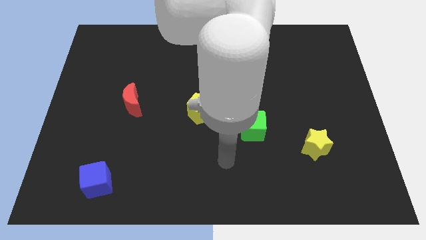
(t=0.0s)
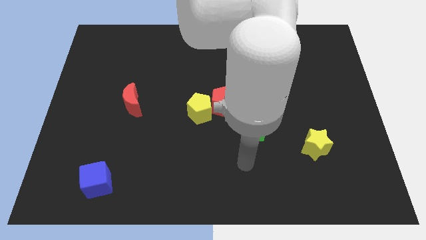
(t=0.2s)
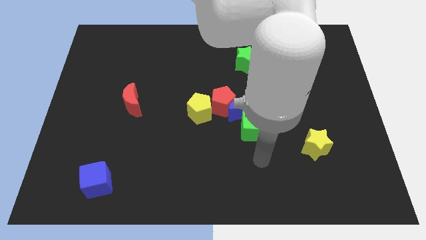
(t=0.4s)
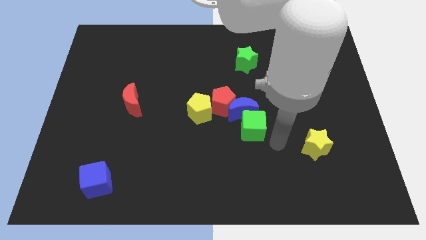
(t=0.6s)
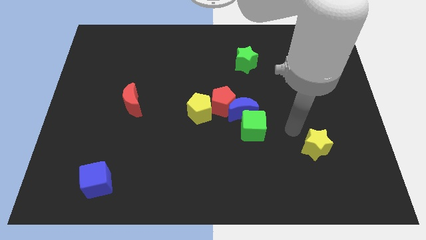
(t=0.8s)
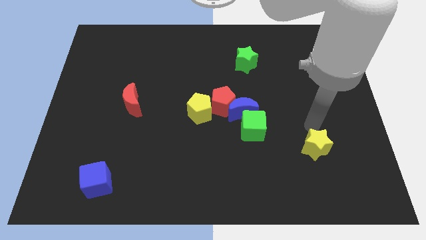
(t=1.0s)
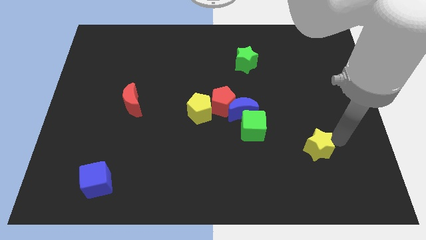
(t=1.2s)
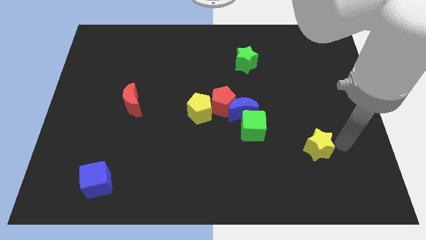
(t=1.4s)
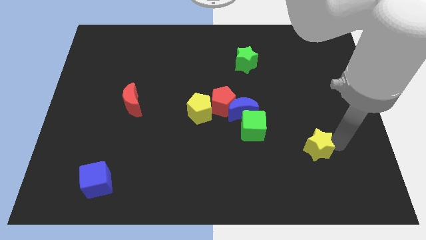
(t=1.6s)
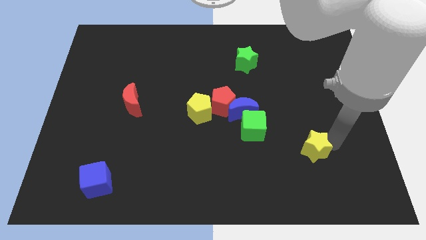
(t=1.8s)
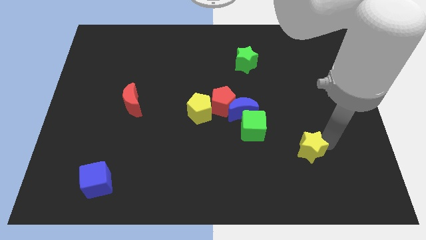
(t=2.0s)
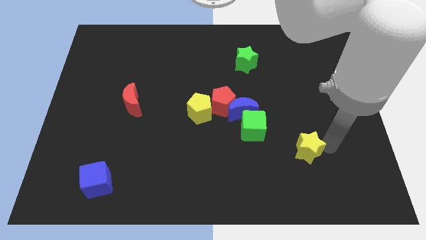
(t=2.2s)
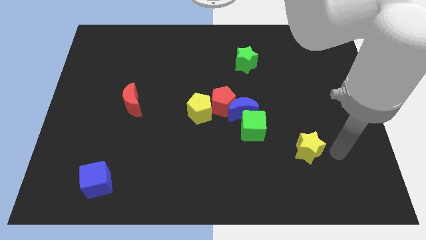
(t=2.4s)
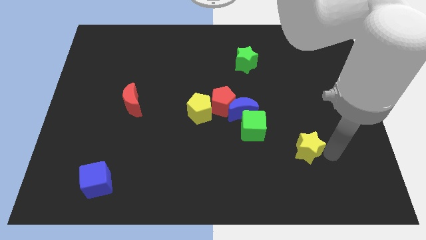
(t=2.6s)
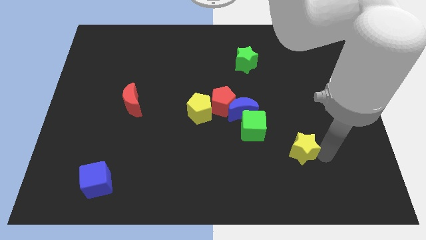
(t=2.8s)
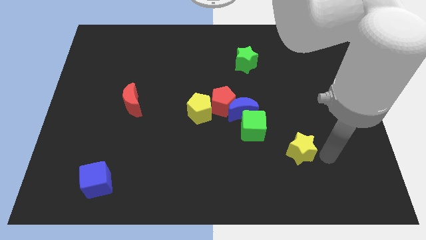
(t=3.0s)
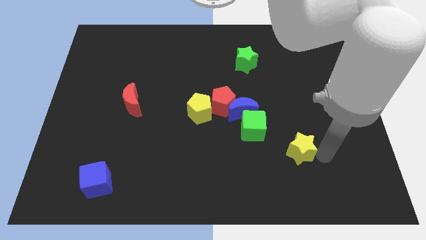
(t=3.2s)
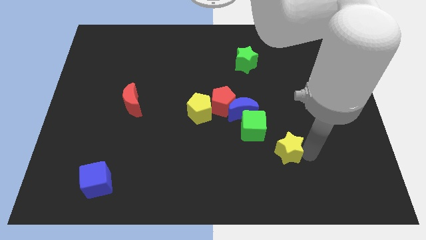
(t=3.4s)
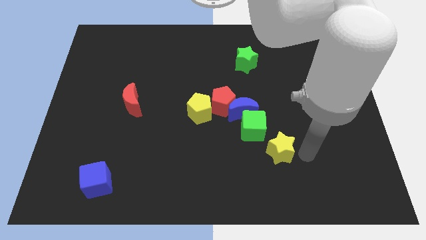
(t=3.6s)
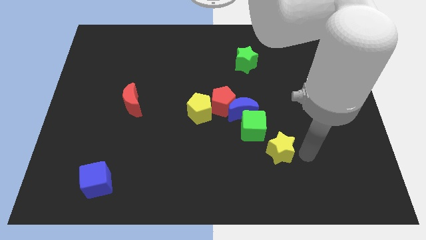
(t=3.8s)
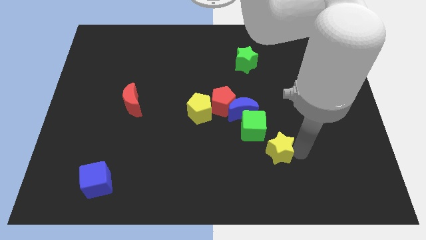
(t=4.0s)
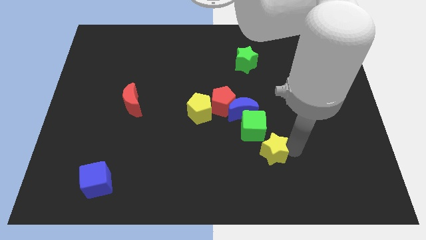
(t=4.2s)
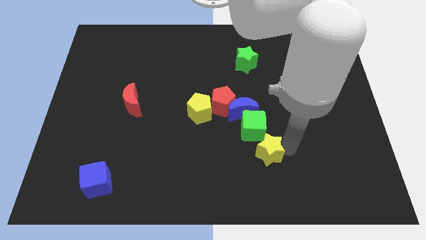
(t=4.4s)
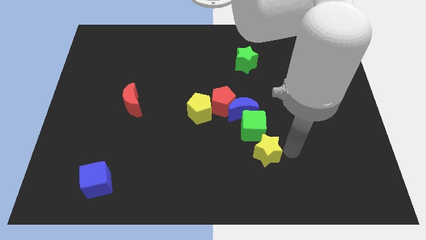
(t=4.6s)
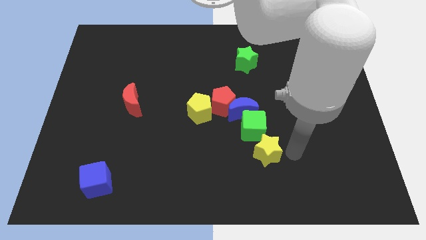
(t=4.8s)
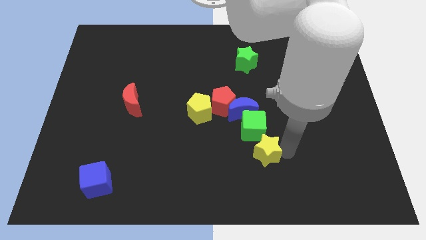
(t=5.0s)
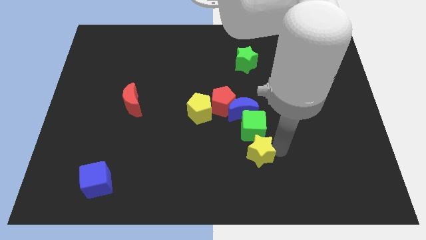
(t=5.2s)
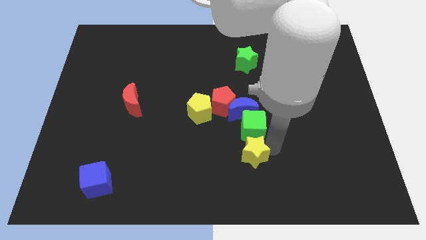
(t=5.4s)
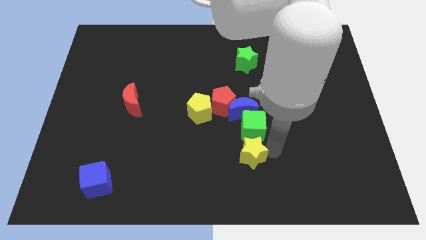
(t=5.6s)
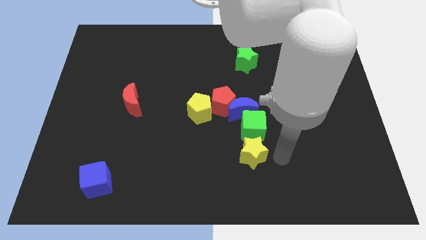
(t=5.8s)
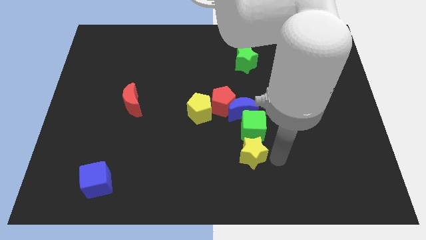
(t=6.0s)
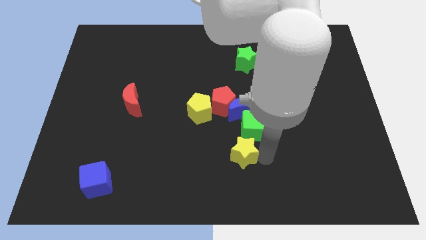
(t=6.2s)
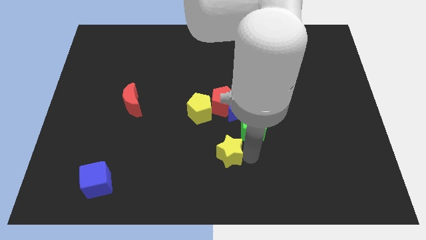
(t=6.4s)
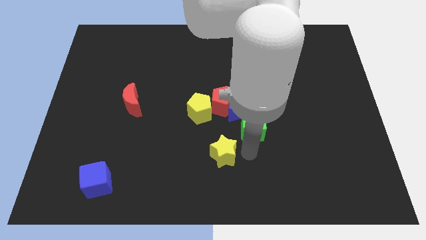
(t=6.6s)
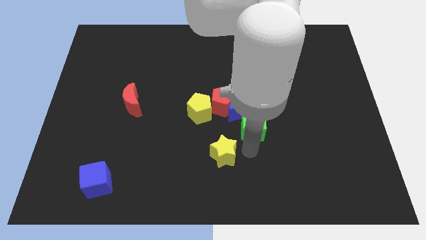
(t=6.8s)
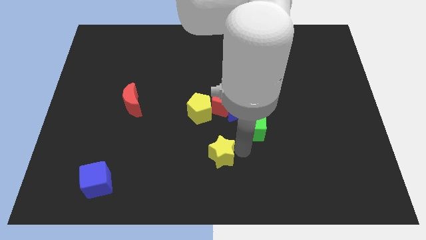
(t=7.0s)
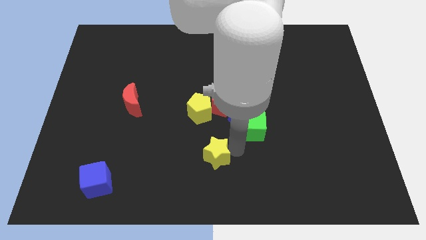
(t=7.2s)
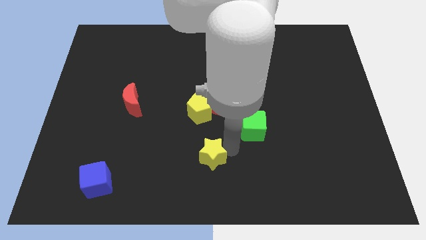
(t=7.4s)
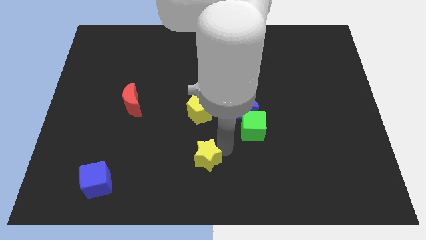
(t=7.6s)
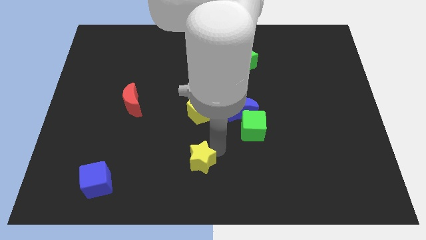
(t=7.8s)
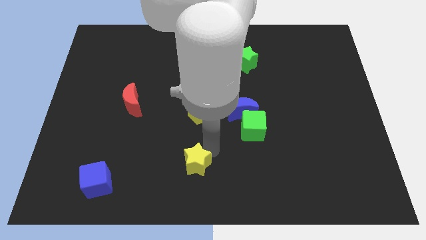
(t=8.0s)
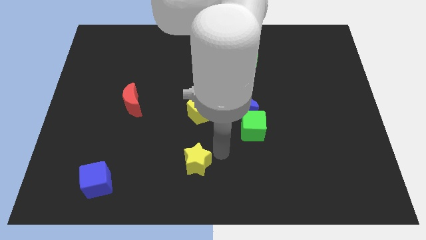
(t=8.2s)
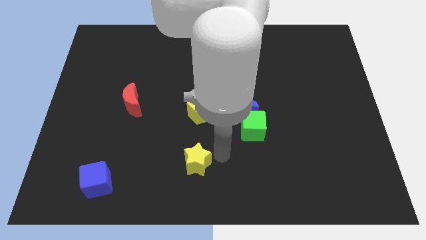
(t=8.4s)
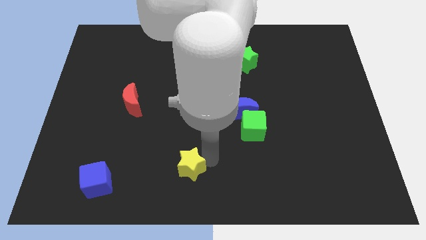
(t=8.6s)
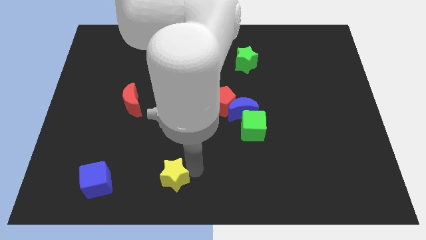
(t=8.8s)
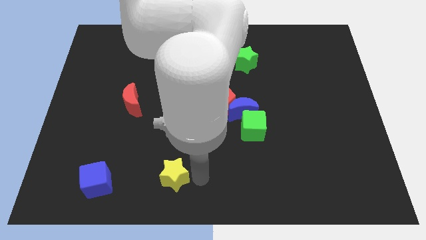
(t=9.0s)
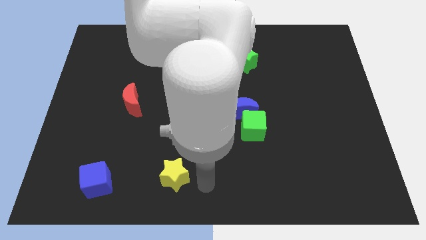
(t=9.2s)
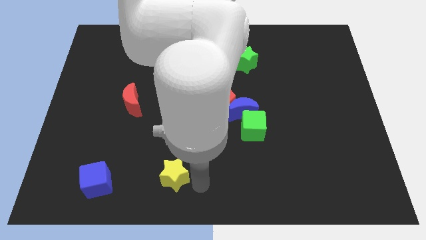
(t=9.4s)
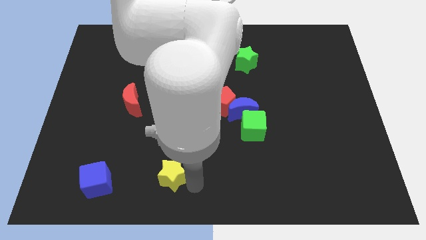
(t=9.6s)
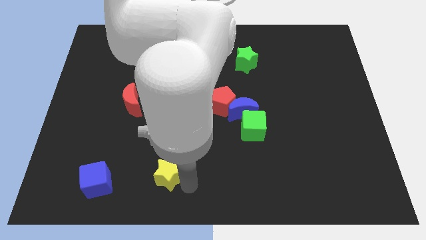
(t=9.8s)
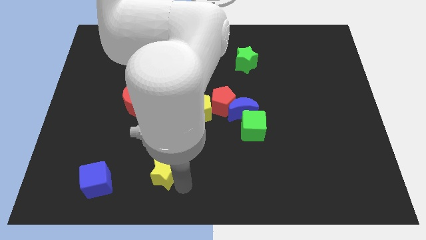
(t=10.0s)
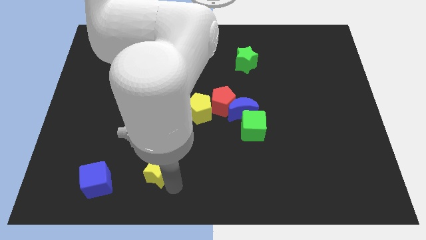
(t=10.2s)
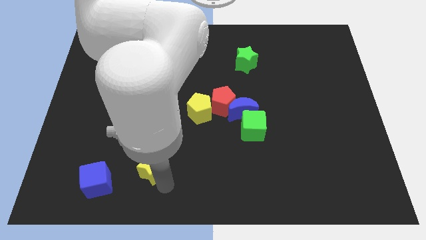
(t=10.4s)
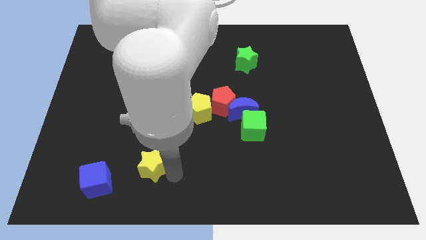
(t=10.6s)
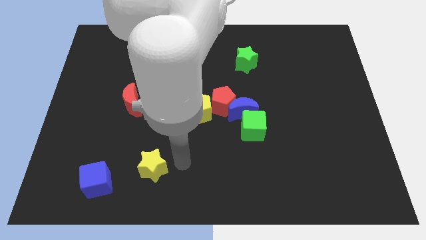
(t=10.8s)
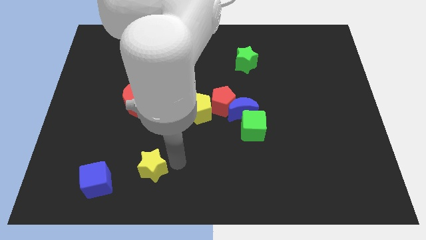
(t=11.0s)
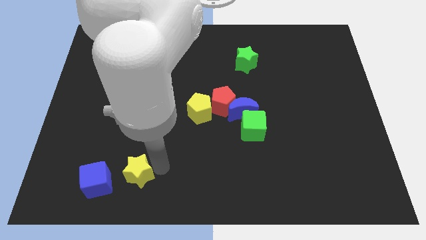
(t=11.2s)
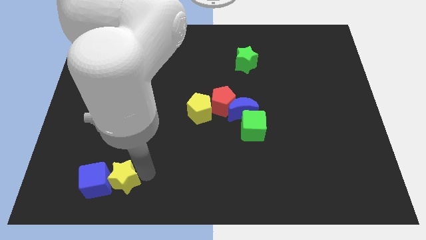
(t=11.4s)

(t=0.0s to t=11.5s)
slide the yellow star next to the blue cube

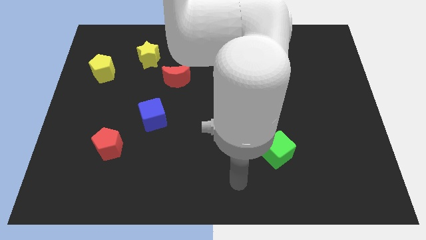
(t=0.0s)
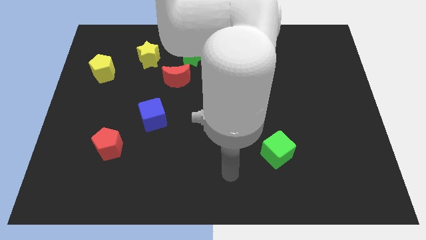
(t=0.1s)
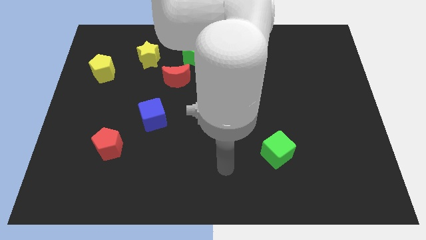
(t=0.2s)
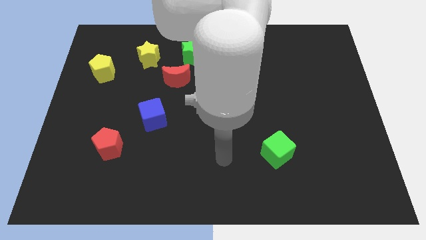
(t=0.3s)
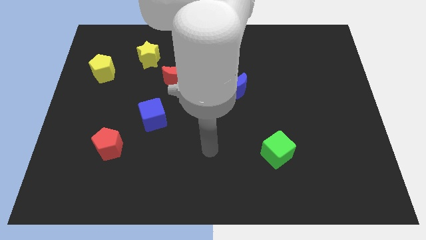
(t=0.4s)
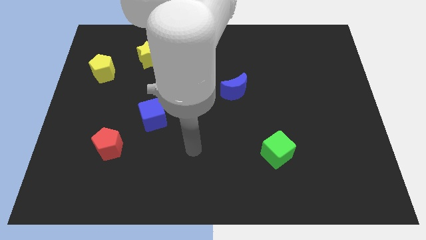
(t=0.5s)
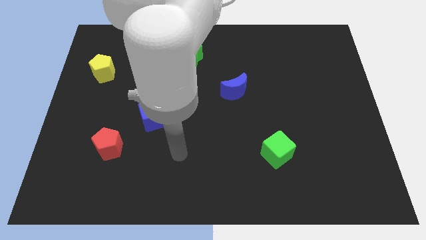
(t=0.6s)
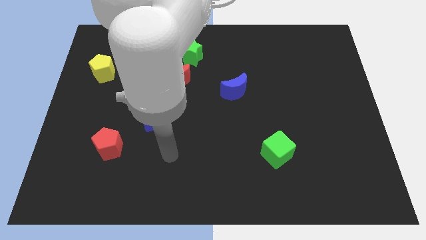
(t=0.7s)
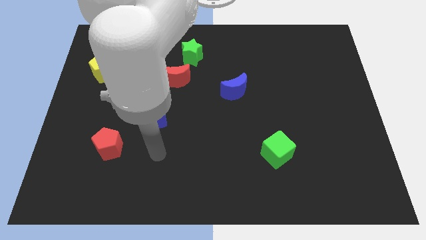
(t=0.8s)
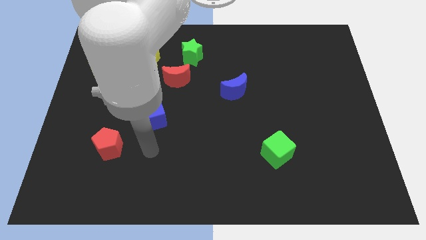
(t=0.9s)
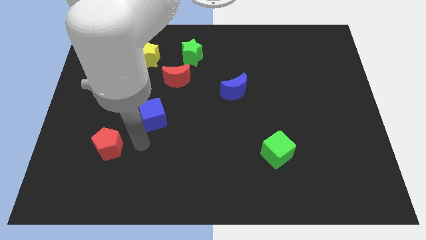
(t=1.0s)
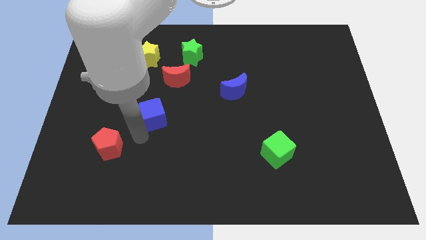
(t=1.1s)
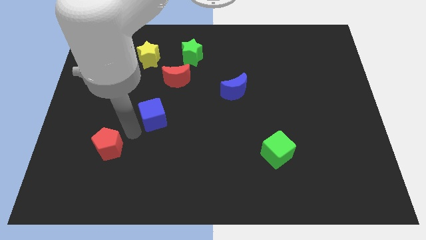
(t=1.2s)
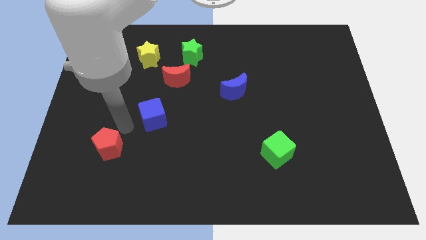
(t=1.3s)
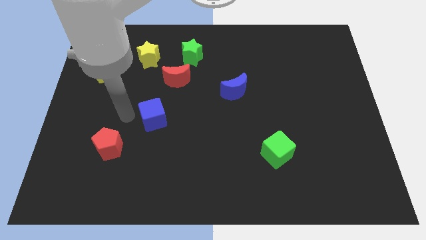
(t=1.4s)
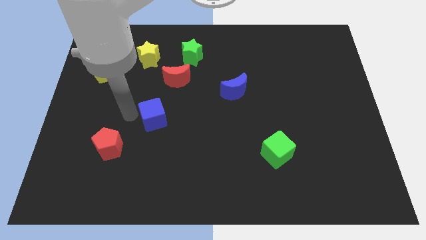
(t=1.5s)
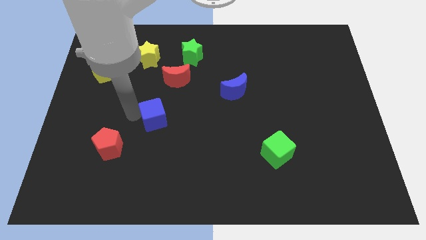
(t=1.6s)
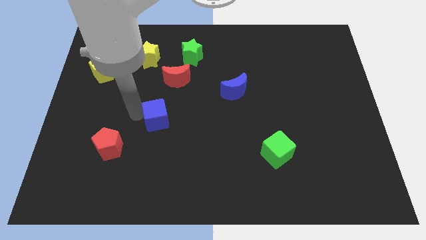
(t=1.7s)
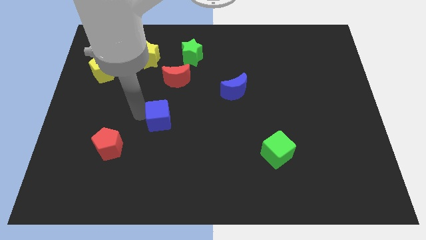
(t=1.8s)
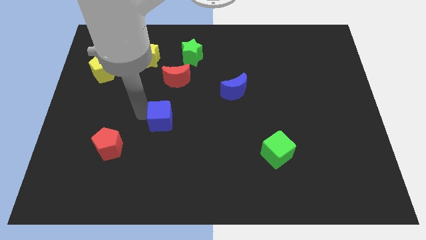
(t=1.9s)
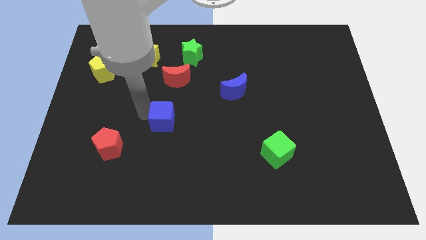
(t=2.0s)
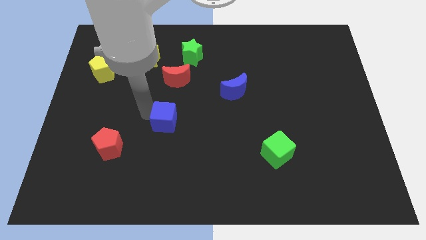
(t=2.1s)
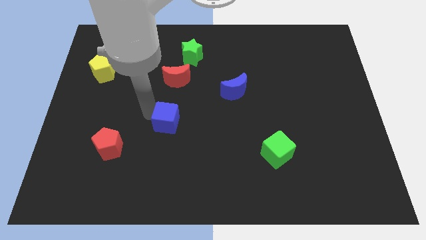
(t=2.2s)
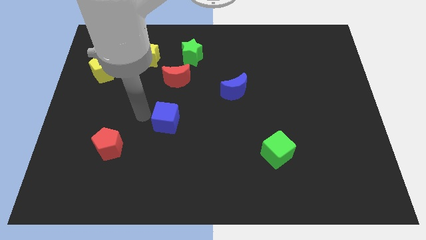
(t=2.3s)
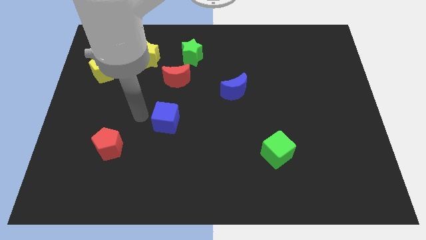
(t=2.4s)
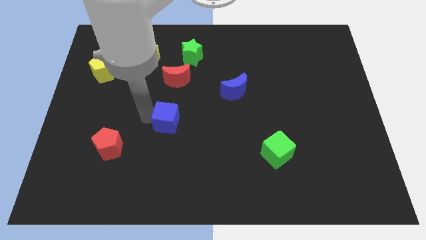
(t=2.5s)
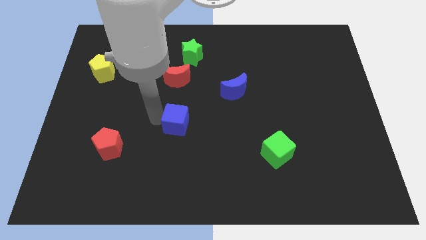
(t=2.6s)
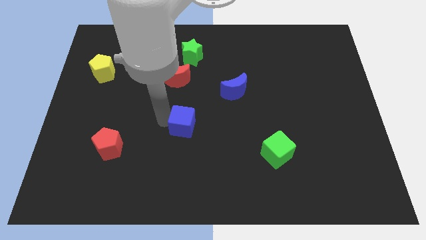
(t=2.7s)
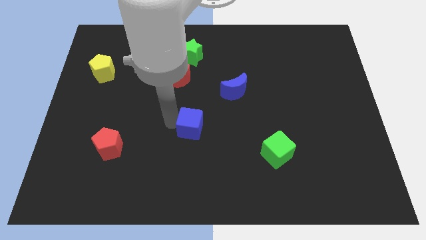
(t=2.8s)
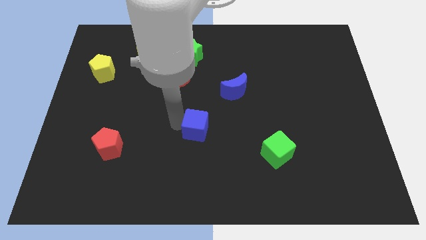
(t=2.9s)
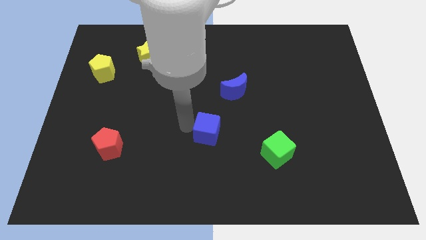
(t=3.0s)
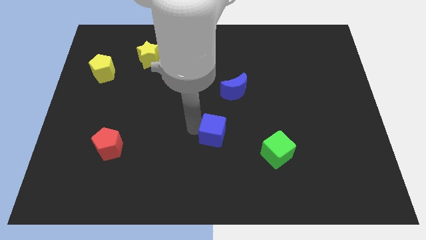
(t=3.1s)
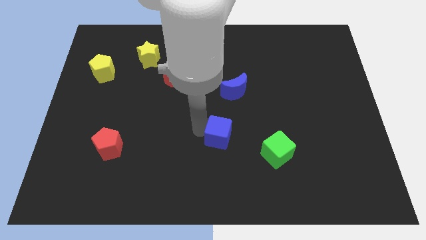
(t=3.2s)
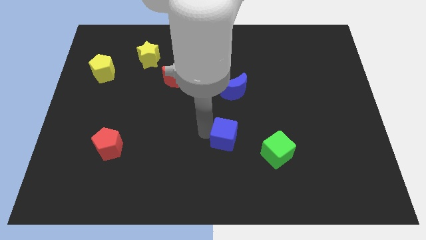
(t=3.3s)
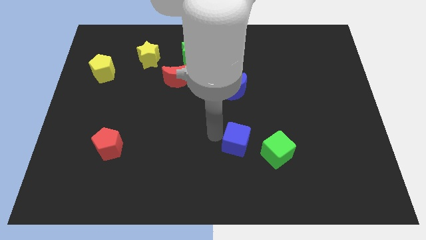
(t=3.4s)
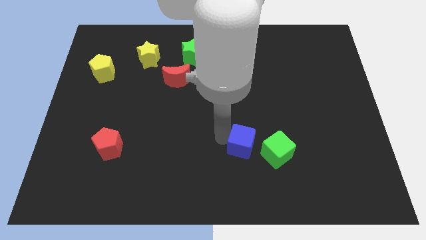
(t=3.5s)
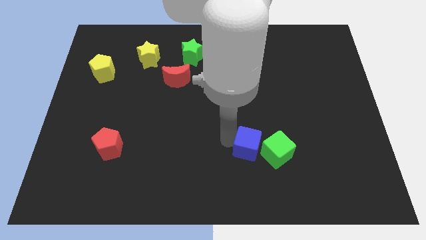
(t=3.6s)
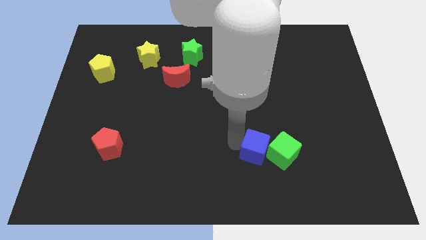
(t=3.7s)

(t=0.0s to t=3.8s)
push the blue cube to the green cube
